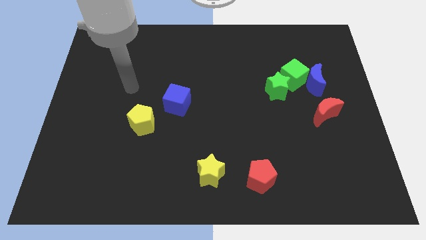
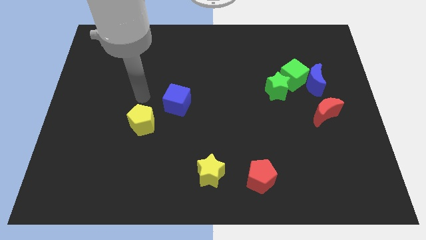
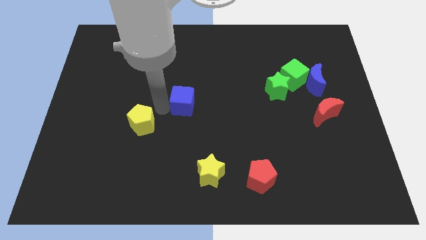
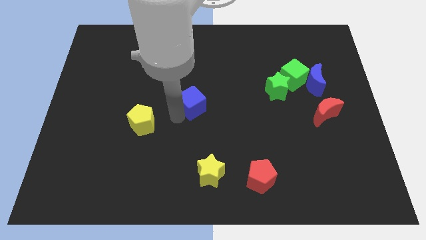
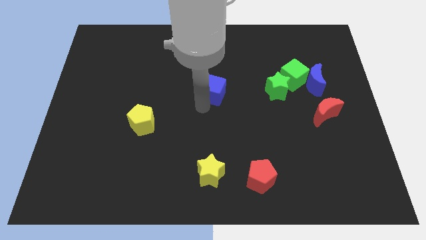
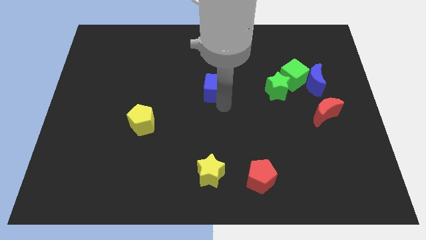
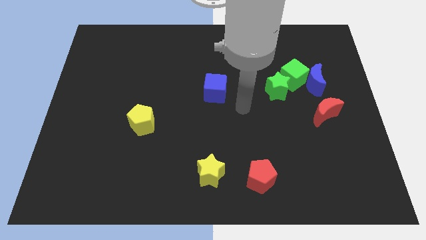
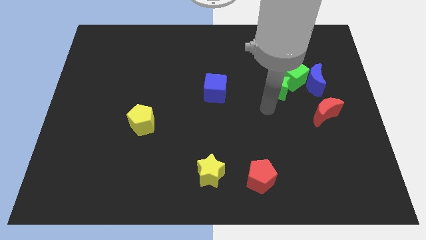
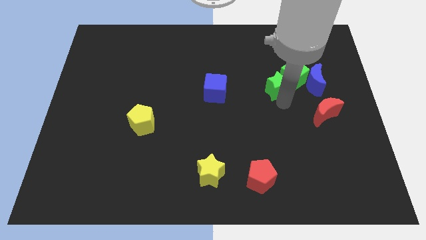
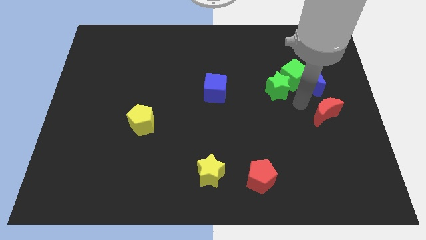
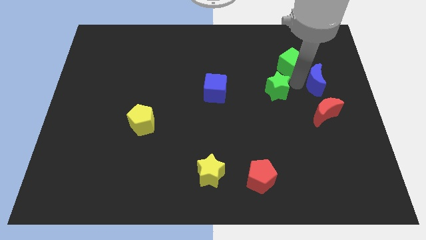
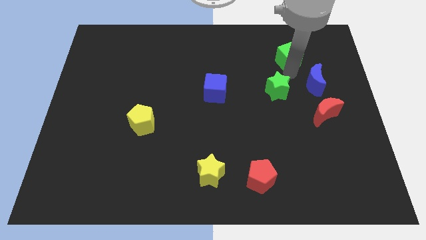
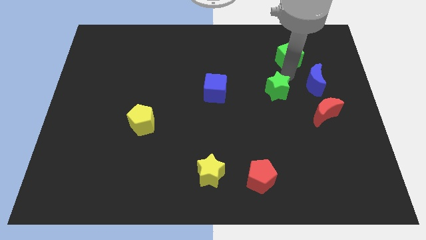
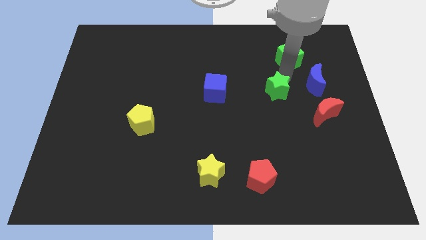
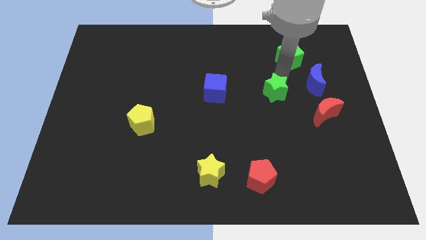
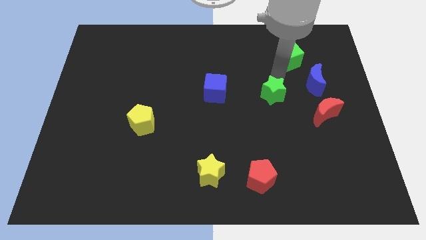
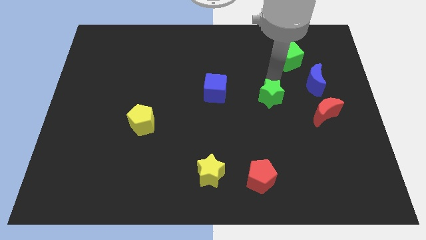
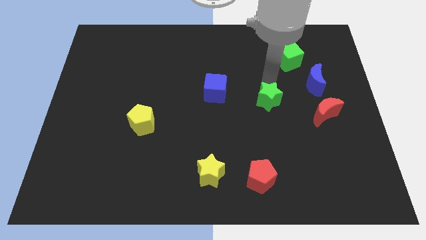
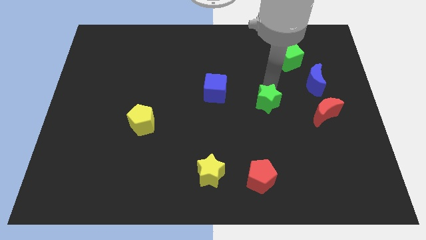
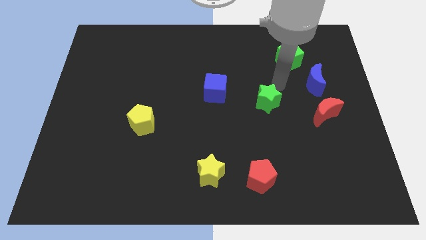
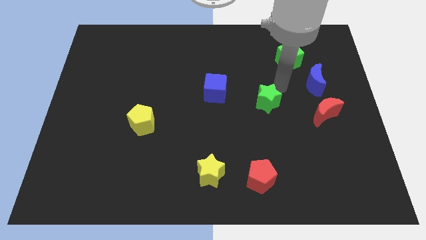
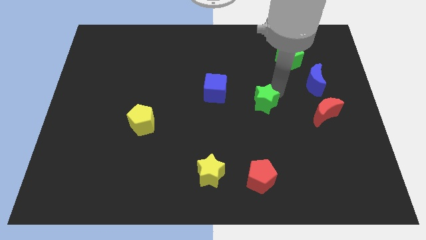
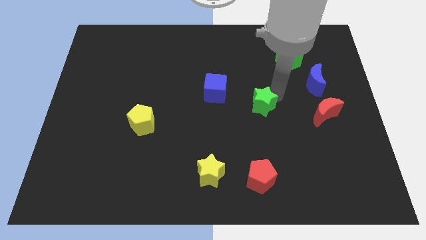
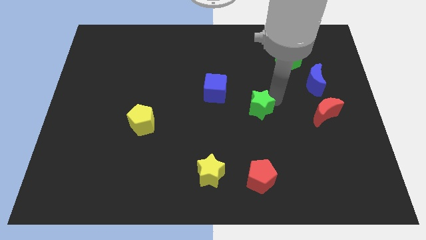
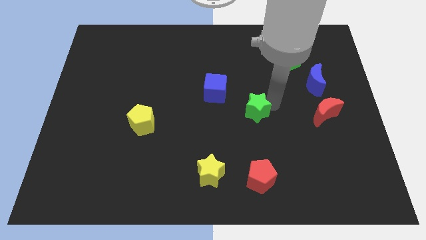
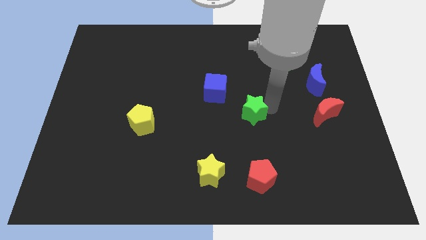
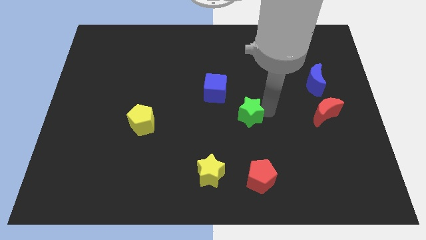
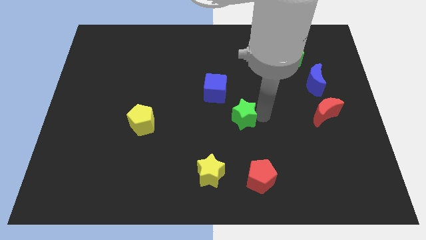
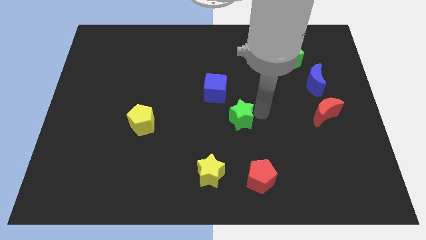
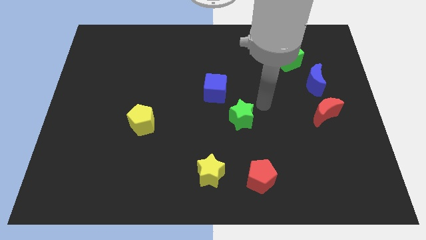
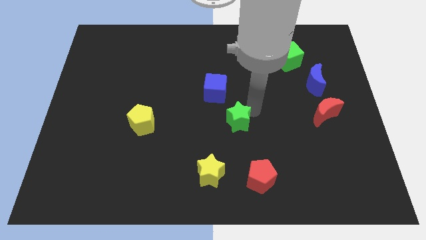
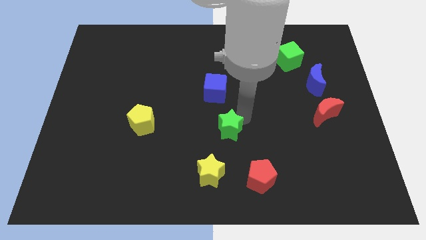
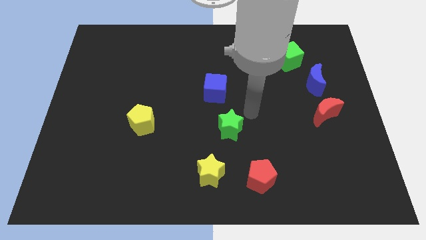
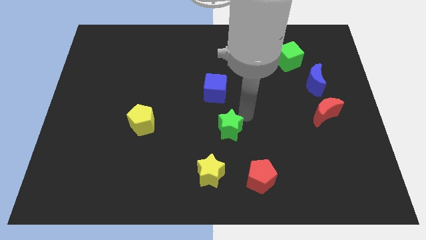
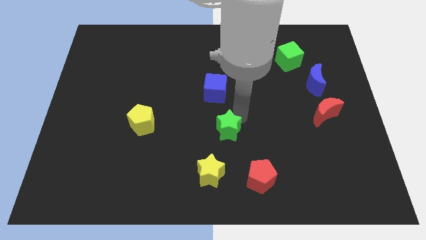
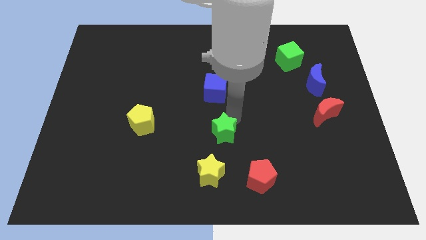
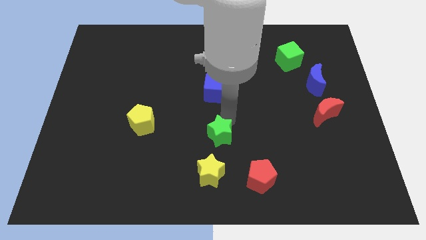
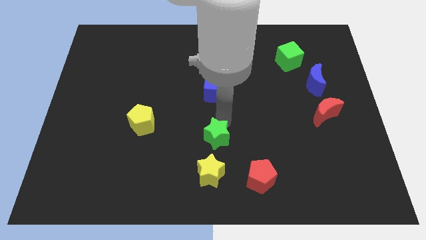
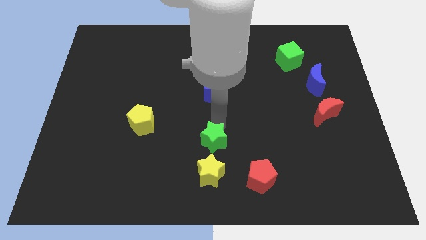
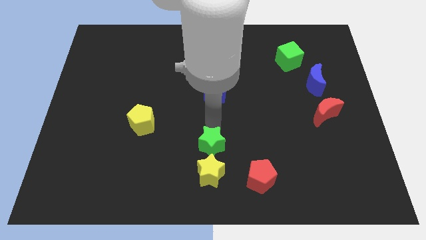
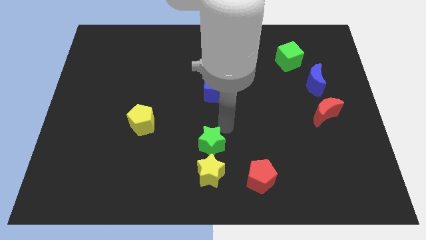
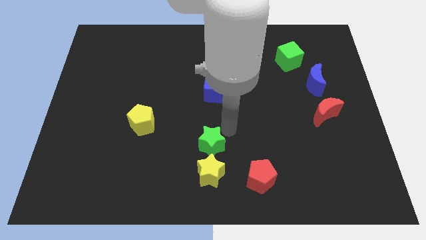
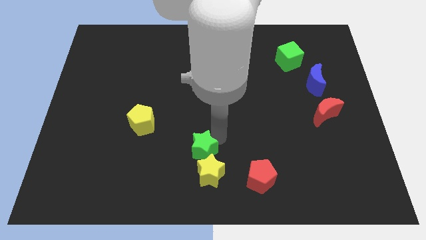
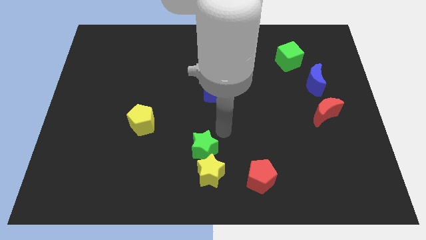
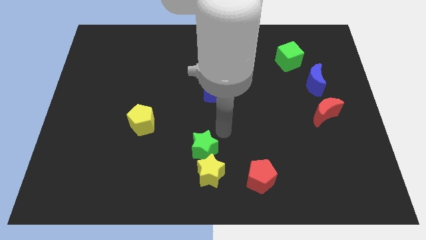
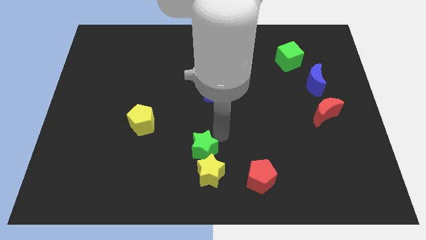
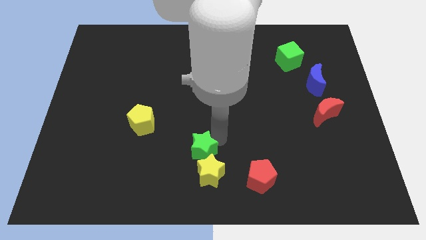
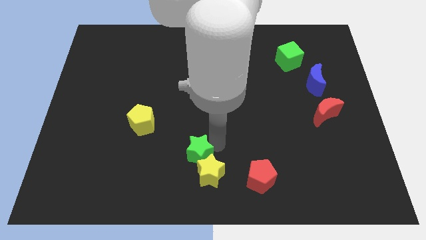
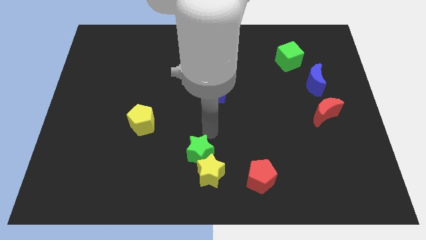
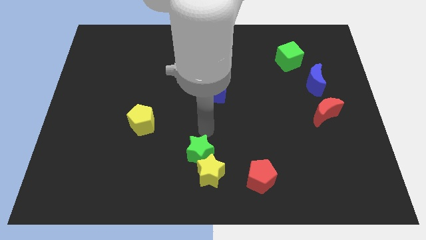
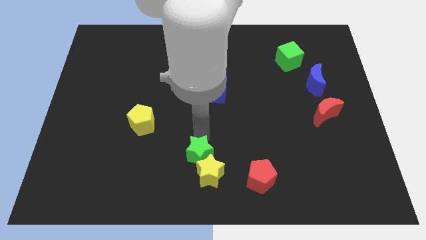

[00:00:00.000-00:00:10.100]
push the green star to the bottom side

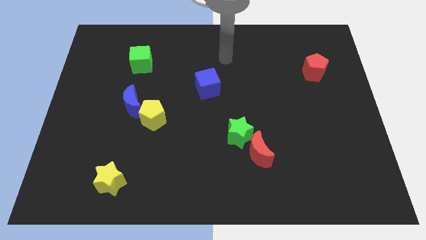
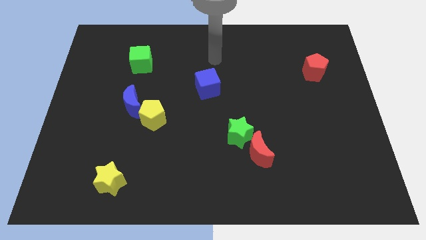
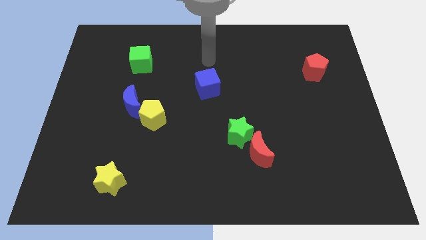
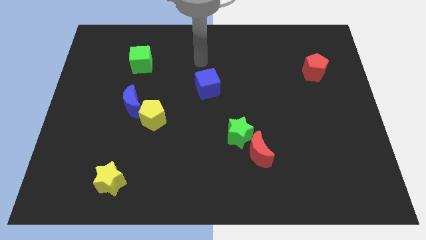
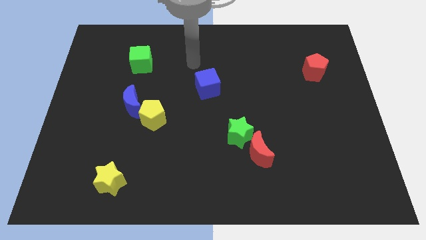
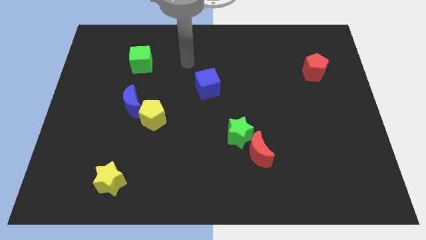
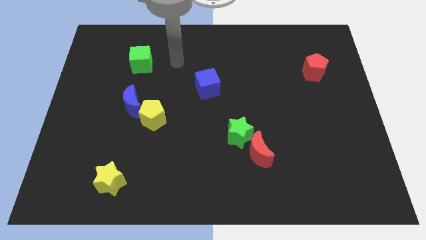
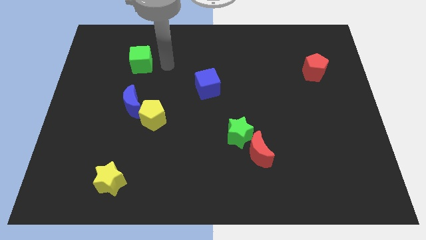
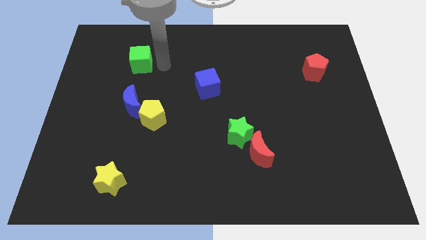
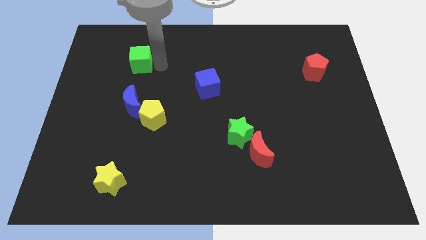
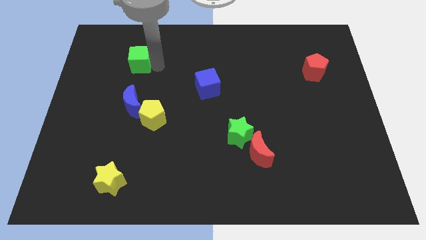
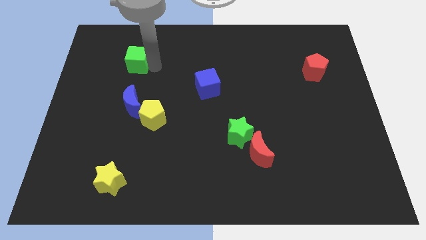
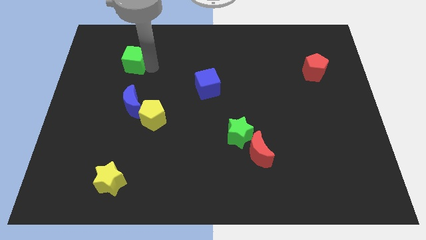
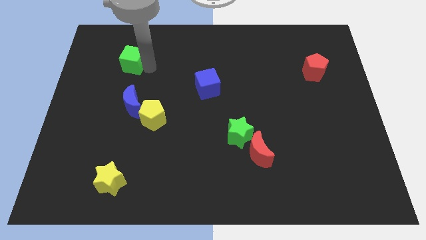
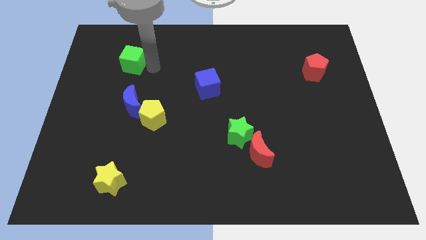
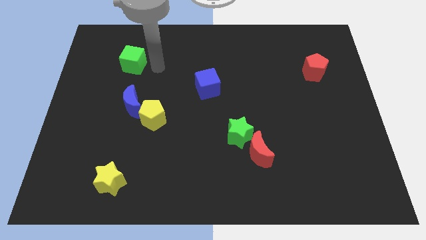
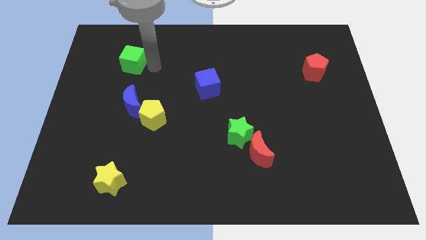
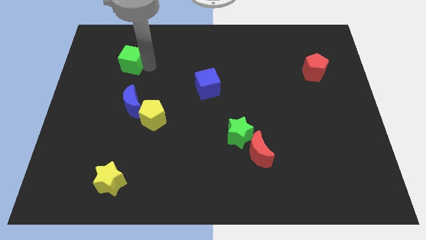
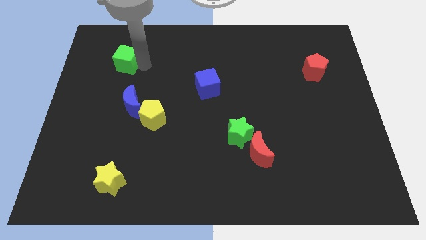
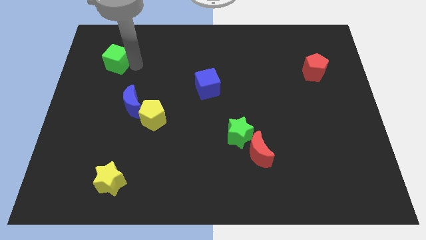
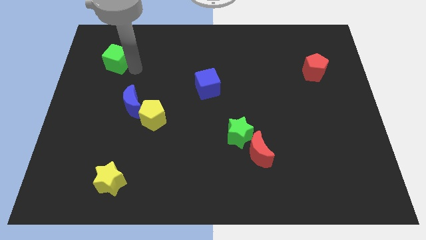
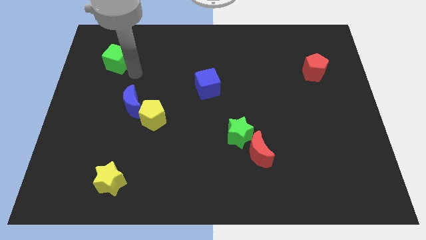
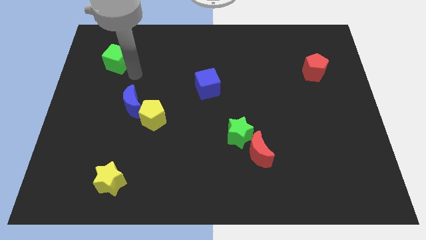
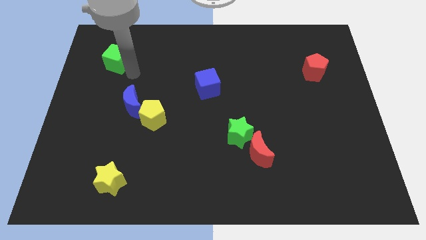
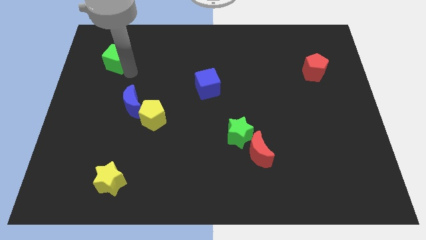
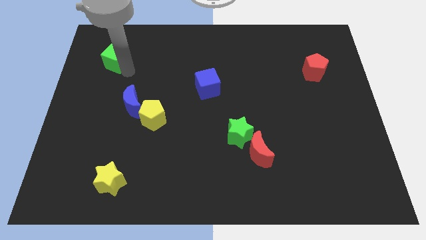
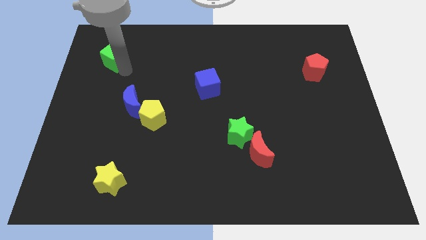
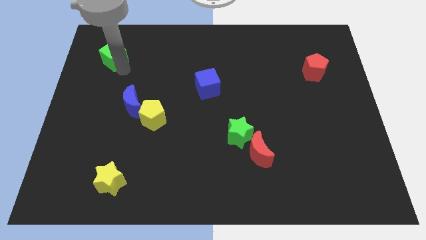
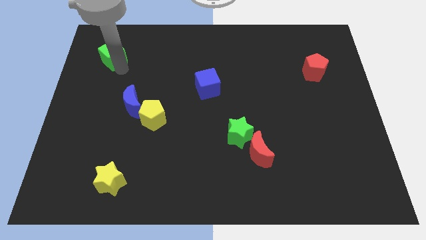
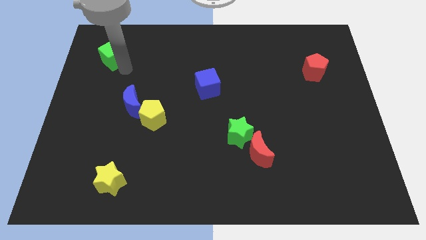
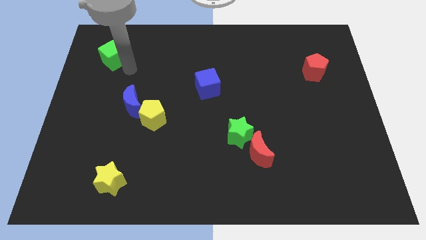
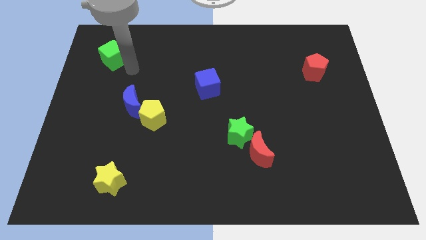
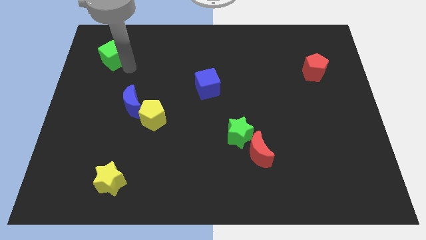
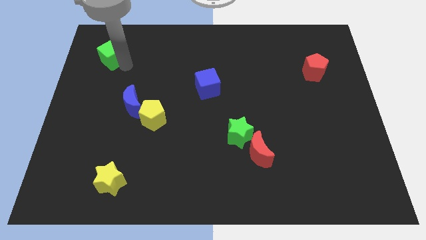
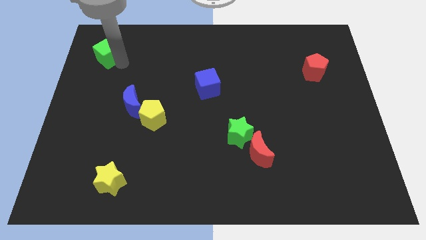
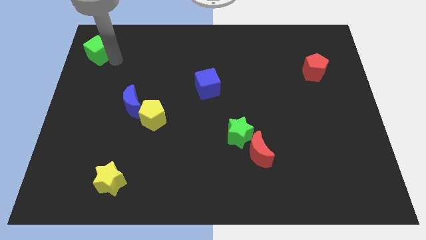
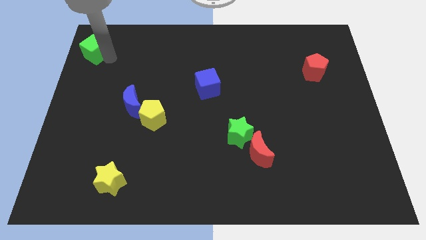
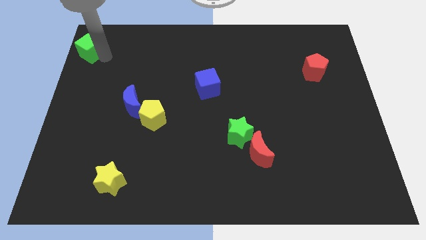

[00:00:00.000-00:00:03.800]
push the green cube to the top left of the board
